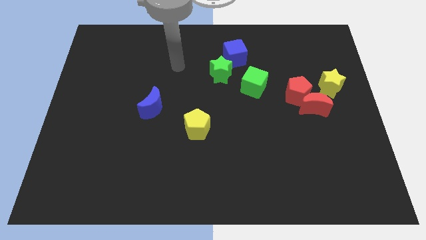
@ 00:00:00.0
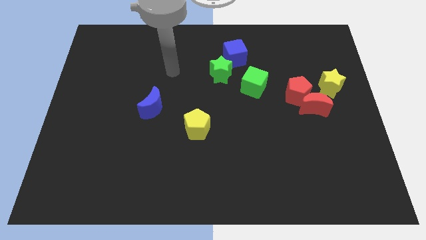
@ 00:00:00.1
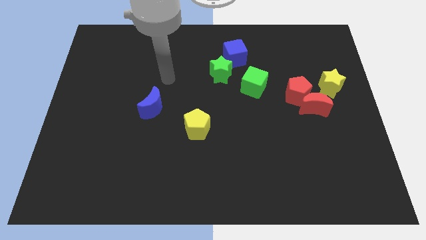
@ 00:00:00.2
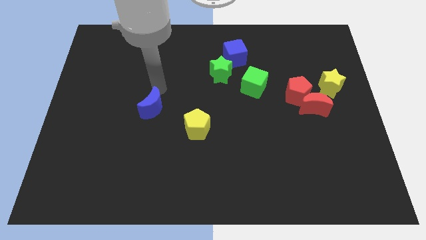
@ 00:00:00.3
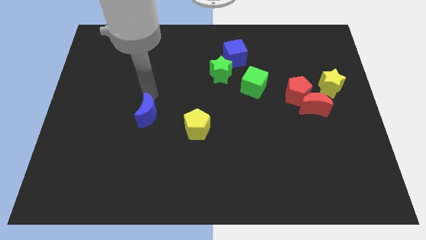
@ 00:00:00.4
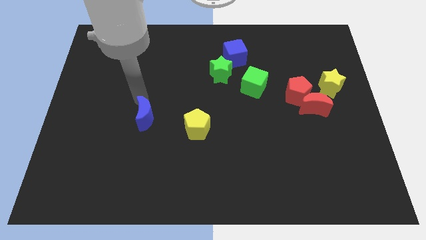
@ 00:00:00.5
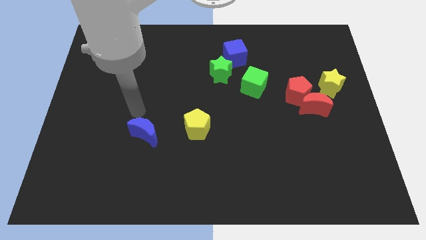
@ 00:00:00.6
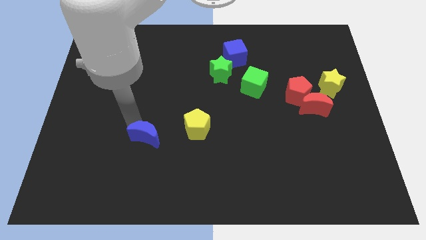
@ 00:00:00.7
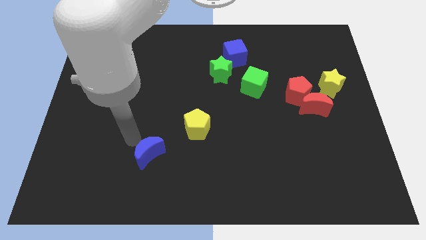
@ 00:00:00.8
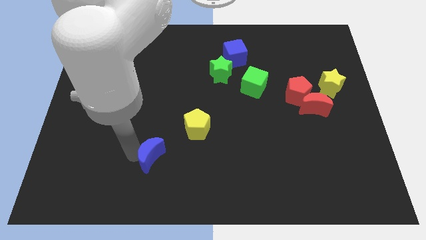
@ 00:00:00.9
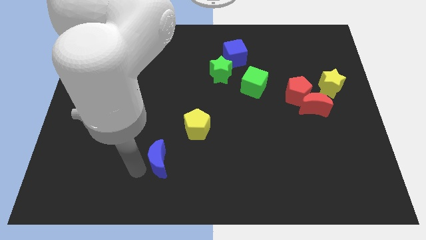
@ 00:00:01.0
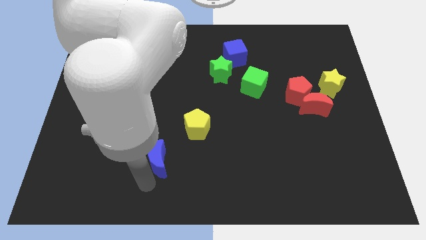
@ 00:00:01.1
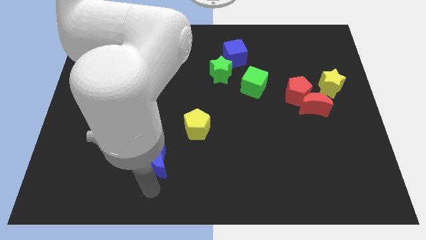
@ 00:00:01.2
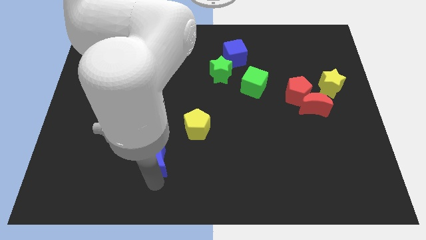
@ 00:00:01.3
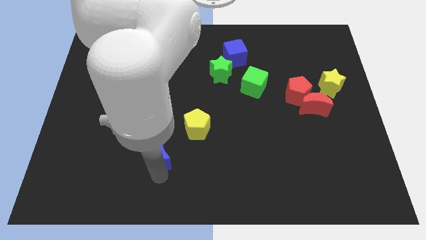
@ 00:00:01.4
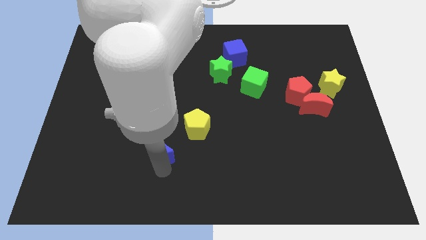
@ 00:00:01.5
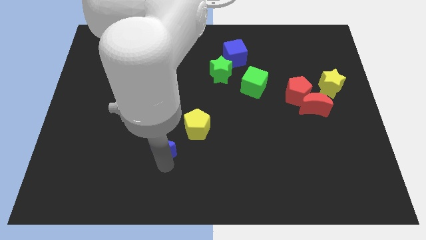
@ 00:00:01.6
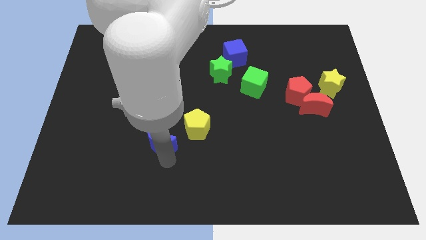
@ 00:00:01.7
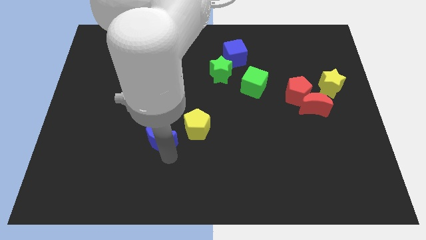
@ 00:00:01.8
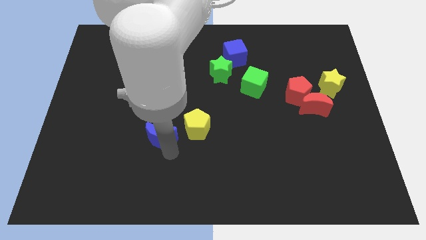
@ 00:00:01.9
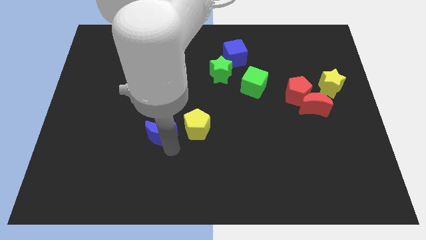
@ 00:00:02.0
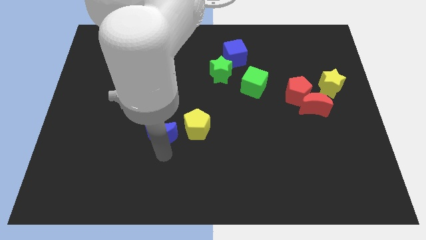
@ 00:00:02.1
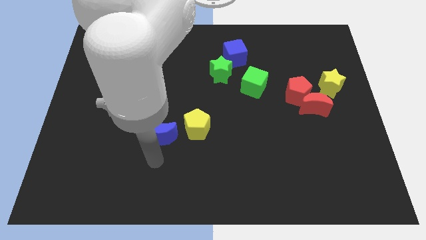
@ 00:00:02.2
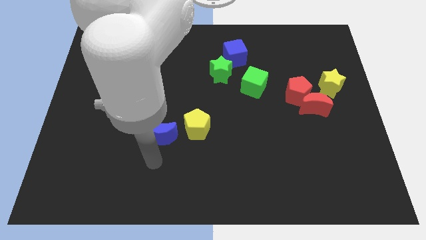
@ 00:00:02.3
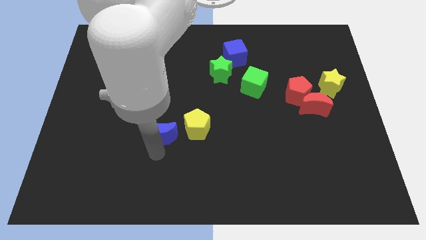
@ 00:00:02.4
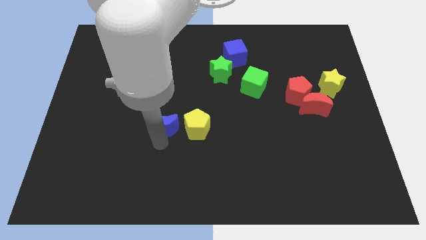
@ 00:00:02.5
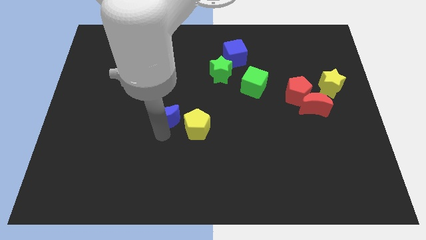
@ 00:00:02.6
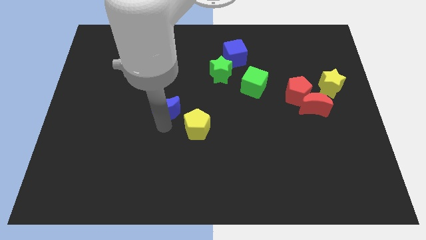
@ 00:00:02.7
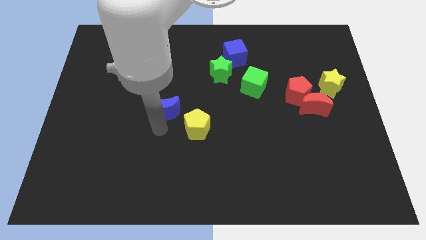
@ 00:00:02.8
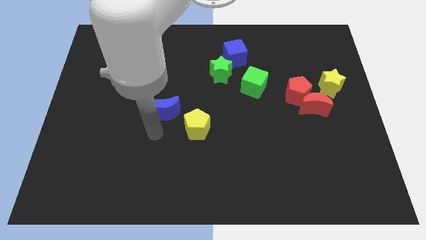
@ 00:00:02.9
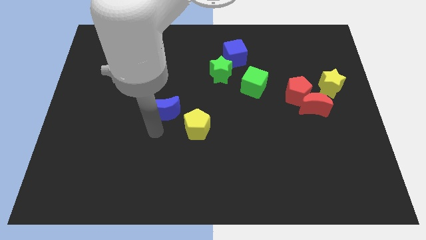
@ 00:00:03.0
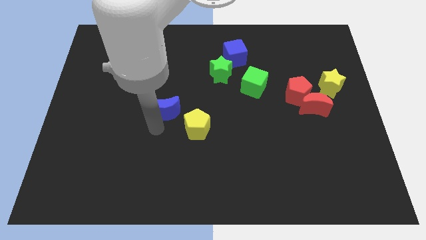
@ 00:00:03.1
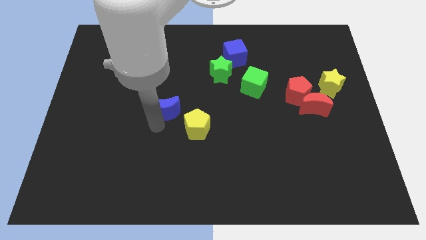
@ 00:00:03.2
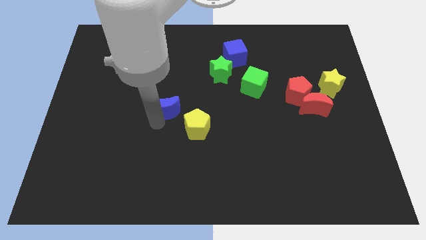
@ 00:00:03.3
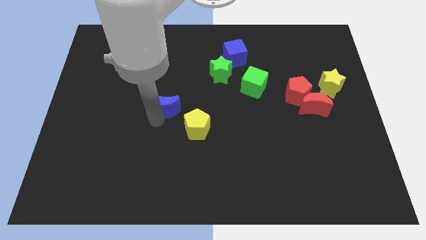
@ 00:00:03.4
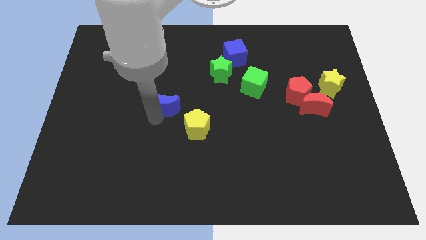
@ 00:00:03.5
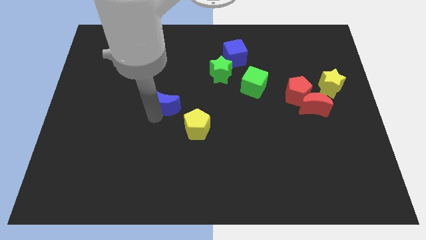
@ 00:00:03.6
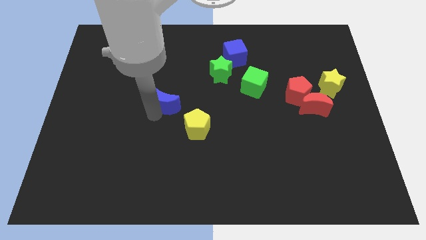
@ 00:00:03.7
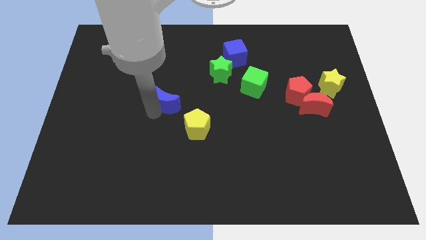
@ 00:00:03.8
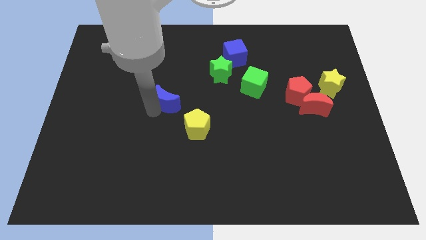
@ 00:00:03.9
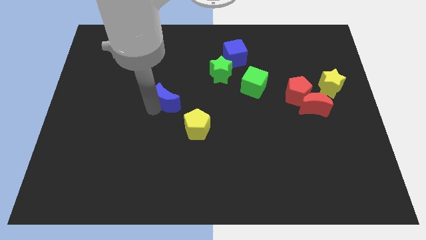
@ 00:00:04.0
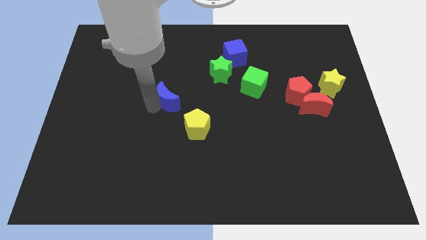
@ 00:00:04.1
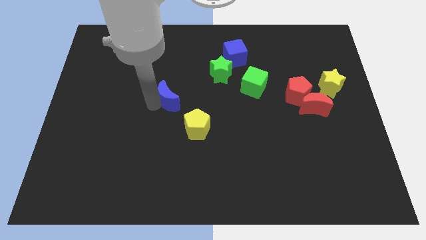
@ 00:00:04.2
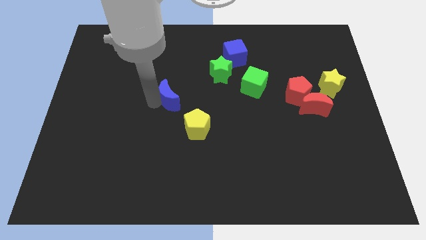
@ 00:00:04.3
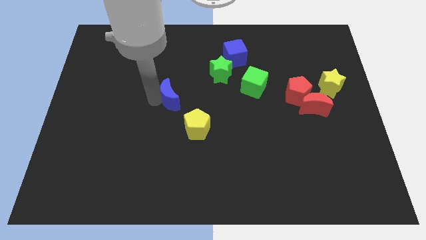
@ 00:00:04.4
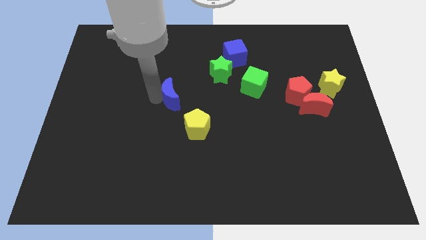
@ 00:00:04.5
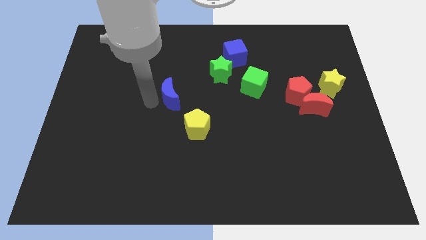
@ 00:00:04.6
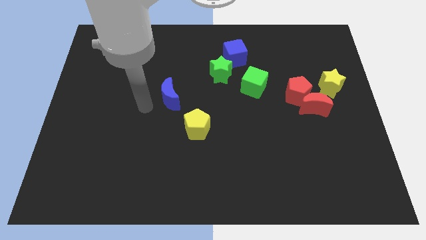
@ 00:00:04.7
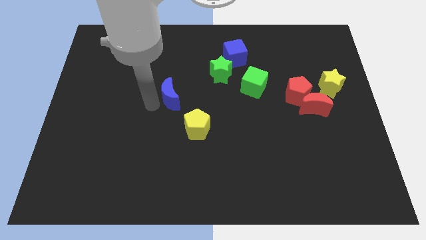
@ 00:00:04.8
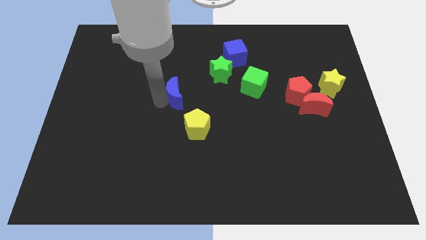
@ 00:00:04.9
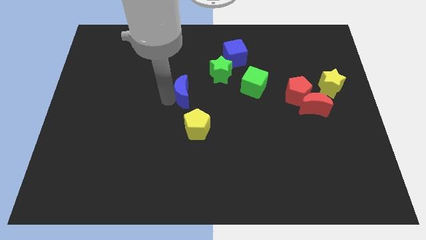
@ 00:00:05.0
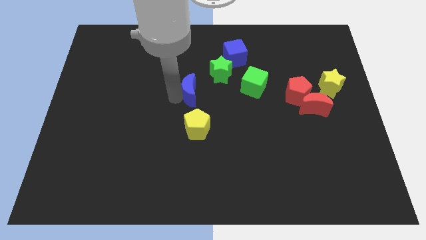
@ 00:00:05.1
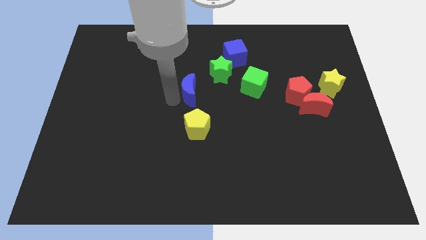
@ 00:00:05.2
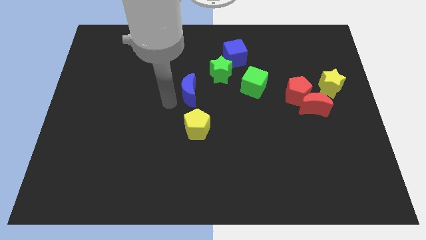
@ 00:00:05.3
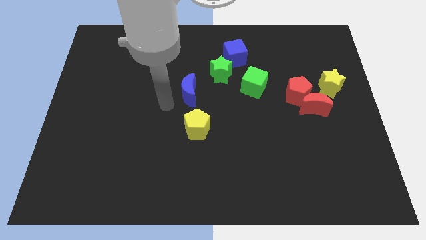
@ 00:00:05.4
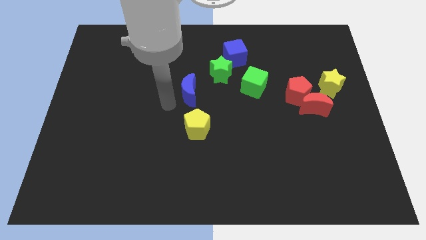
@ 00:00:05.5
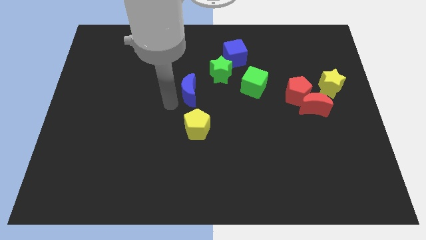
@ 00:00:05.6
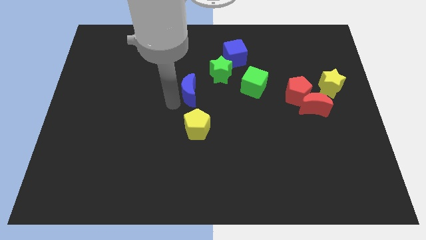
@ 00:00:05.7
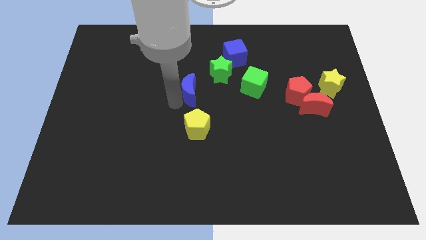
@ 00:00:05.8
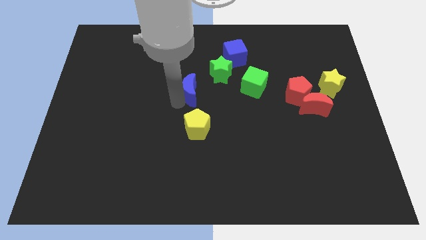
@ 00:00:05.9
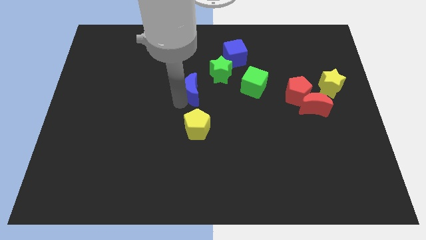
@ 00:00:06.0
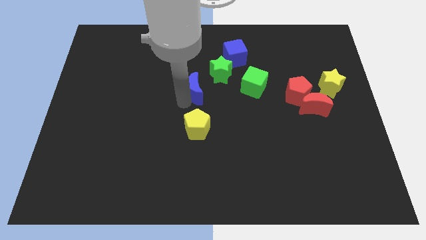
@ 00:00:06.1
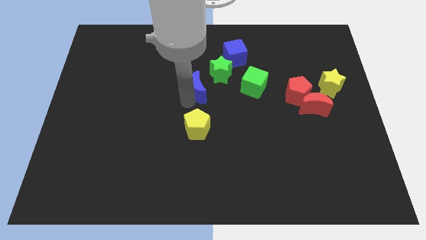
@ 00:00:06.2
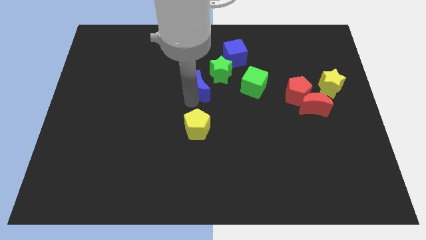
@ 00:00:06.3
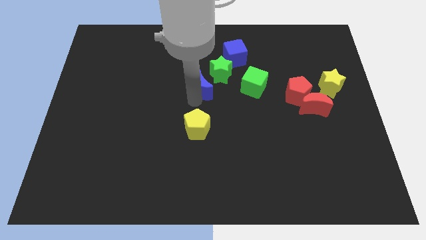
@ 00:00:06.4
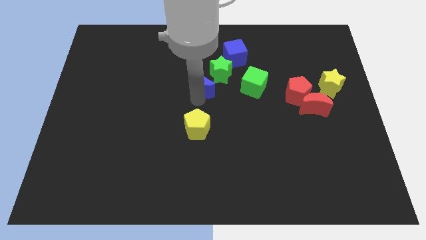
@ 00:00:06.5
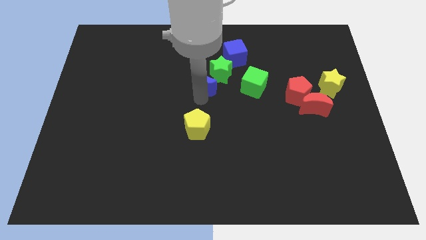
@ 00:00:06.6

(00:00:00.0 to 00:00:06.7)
push the blue moon towards the green star
